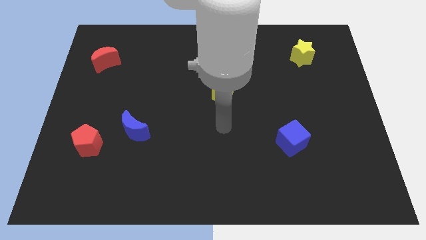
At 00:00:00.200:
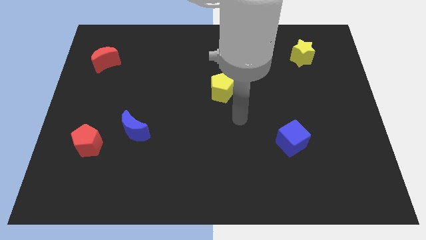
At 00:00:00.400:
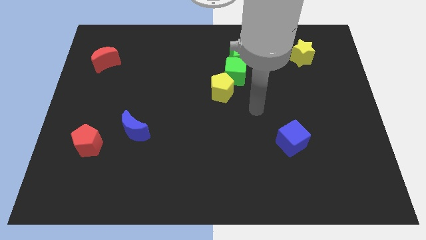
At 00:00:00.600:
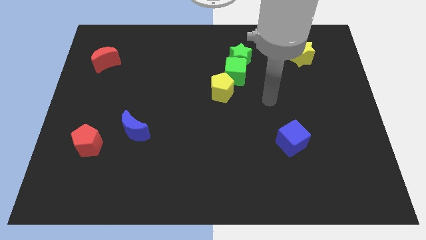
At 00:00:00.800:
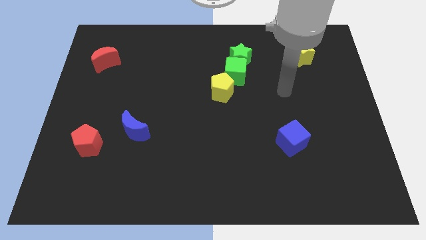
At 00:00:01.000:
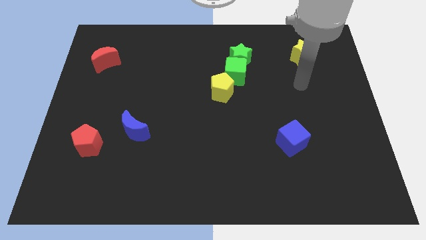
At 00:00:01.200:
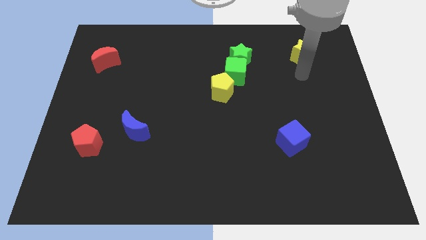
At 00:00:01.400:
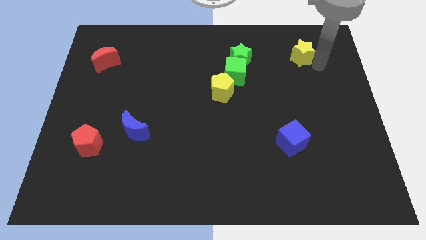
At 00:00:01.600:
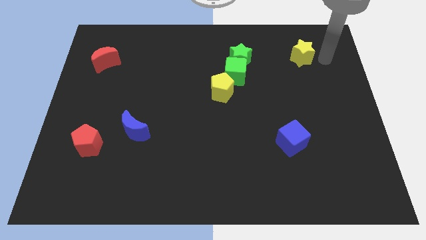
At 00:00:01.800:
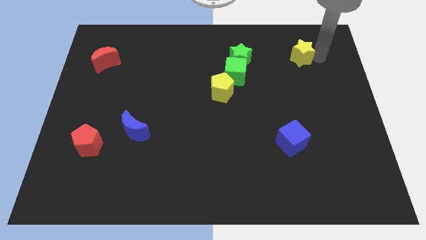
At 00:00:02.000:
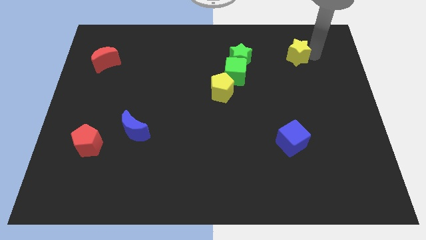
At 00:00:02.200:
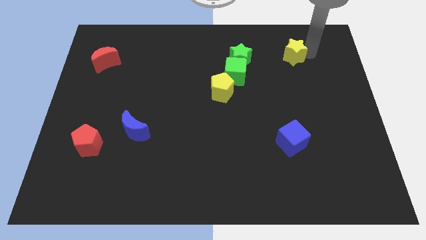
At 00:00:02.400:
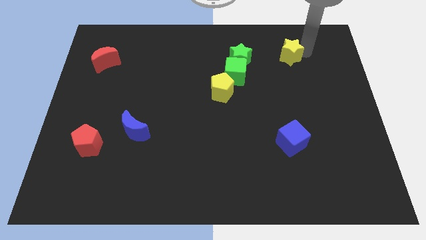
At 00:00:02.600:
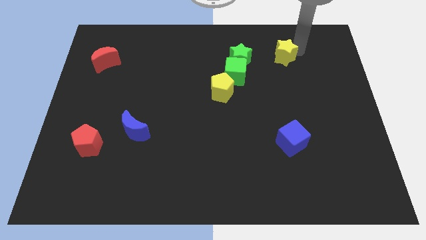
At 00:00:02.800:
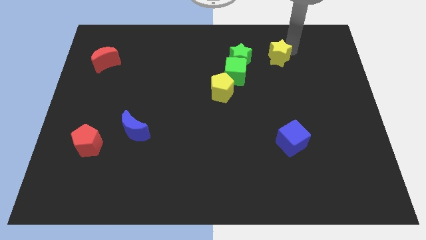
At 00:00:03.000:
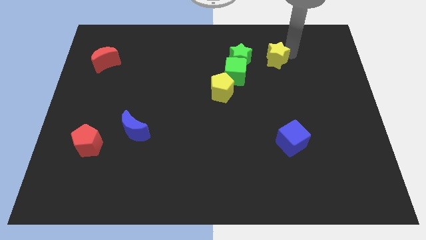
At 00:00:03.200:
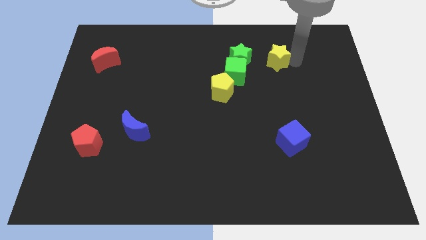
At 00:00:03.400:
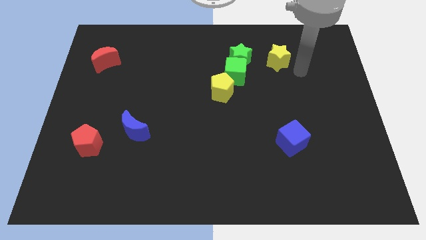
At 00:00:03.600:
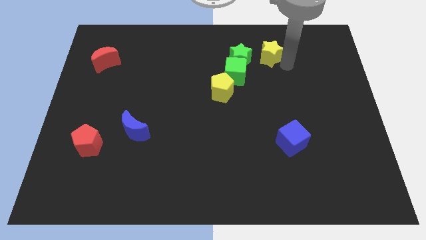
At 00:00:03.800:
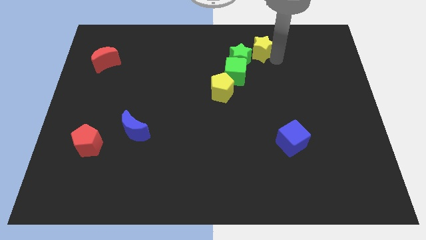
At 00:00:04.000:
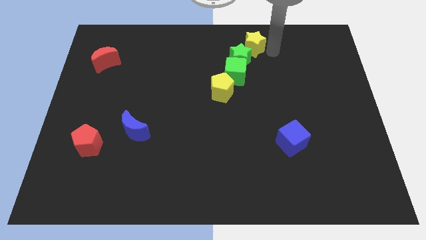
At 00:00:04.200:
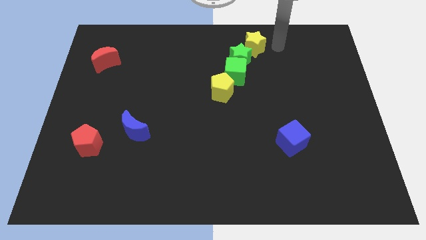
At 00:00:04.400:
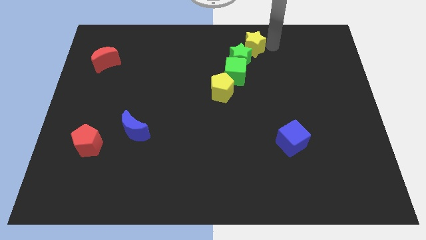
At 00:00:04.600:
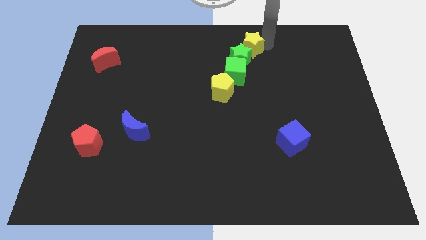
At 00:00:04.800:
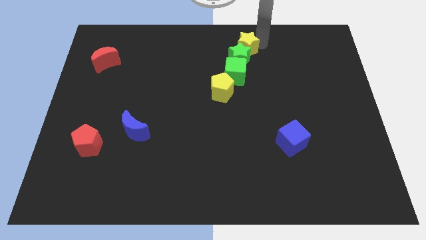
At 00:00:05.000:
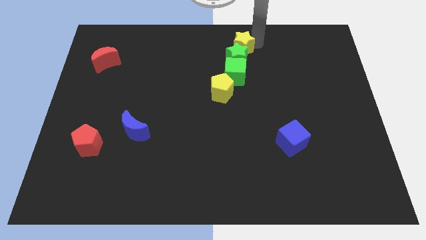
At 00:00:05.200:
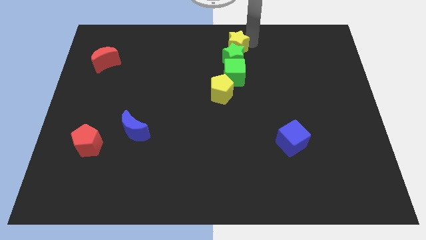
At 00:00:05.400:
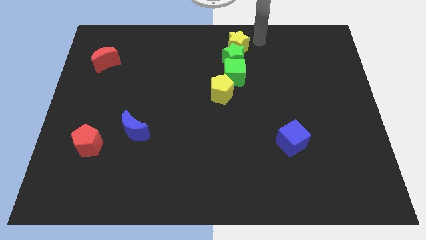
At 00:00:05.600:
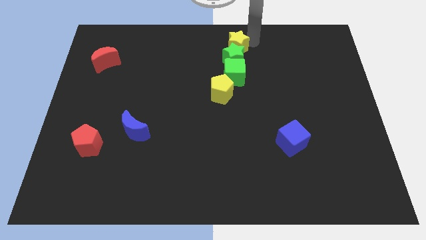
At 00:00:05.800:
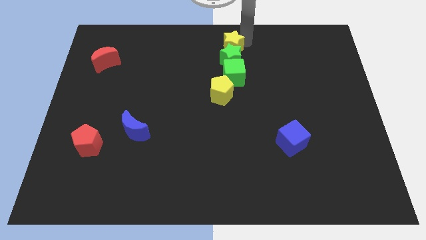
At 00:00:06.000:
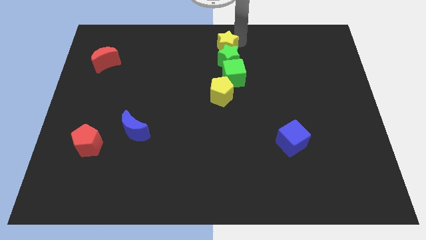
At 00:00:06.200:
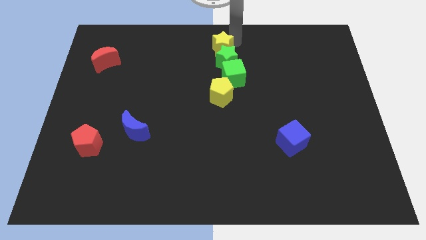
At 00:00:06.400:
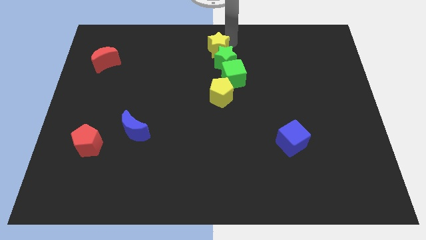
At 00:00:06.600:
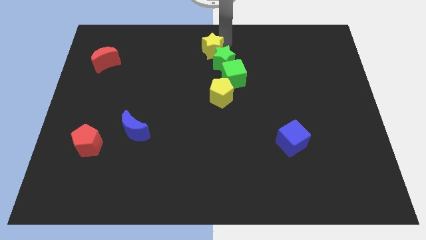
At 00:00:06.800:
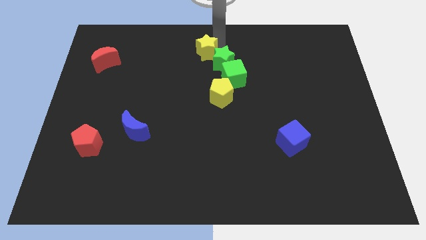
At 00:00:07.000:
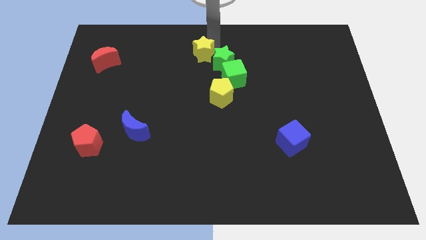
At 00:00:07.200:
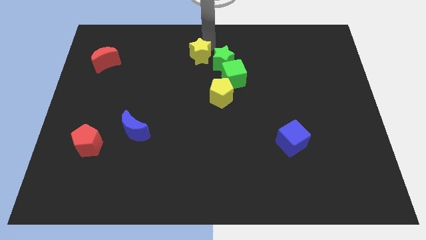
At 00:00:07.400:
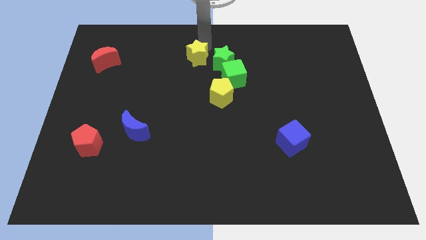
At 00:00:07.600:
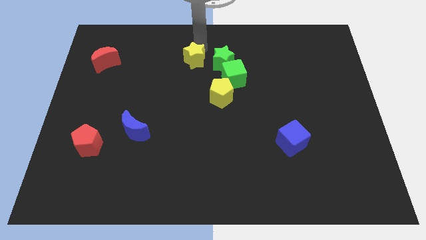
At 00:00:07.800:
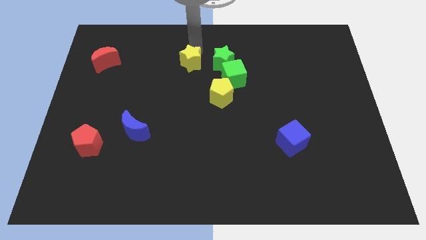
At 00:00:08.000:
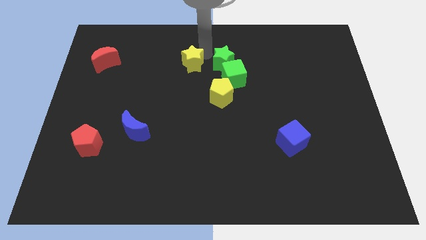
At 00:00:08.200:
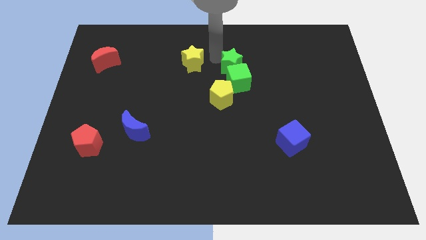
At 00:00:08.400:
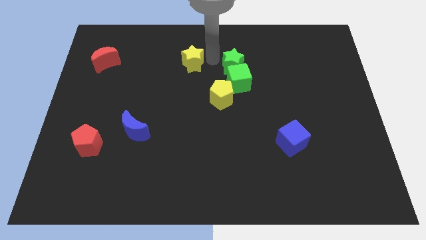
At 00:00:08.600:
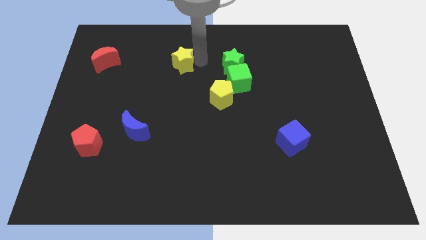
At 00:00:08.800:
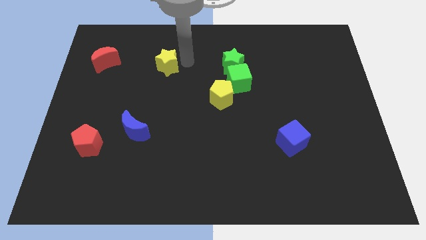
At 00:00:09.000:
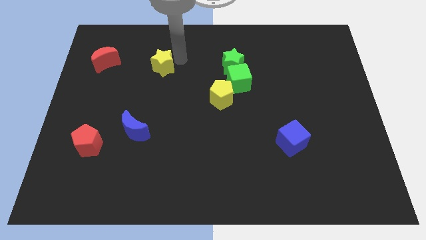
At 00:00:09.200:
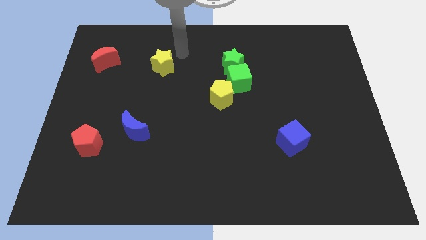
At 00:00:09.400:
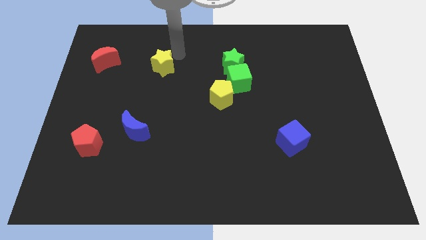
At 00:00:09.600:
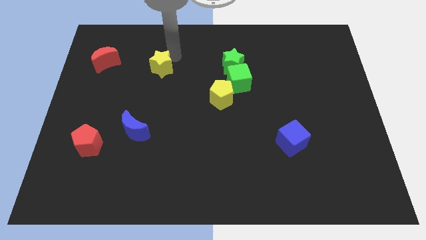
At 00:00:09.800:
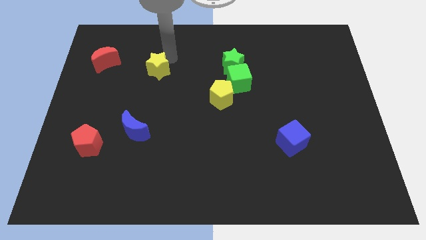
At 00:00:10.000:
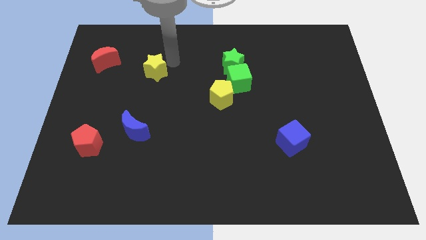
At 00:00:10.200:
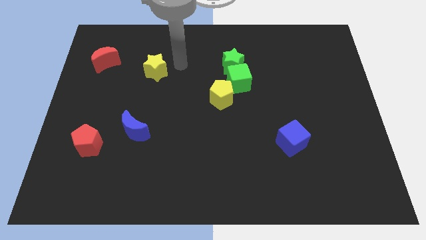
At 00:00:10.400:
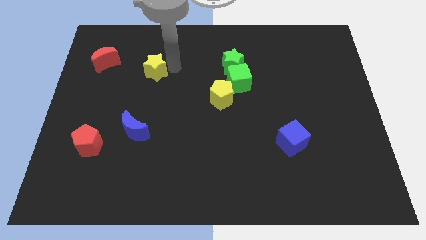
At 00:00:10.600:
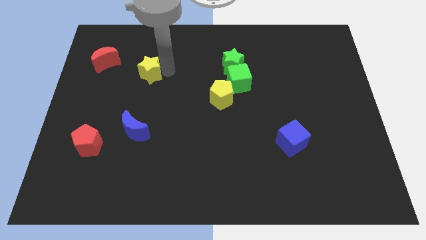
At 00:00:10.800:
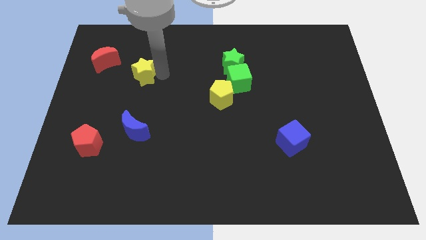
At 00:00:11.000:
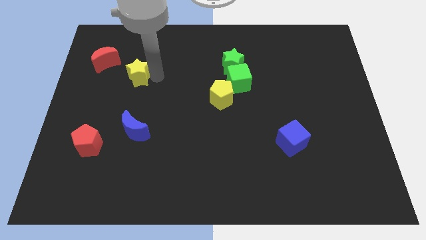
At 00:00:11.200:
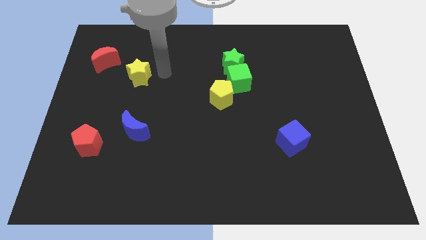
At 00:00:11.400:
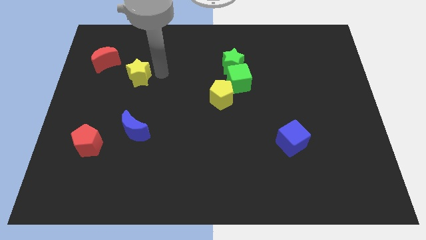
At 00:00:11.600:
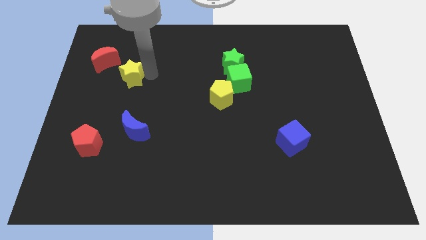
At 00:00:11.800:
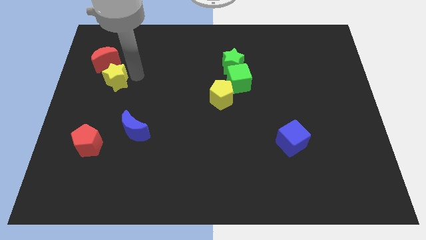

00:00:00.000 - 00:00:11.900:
put the yellow star to the bottom of the red moon
